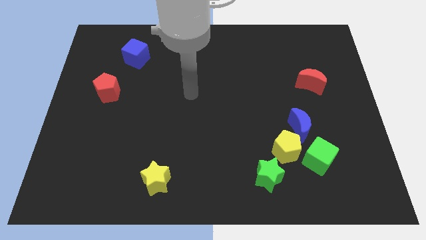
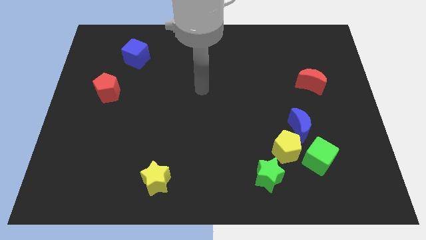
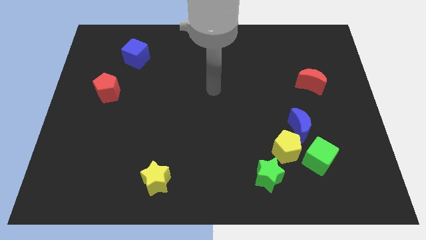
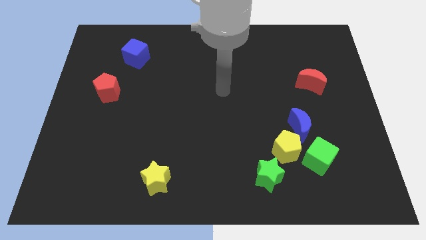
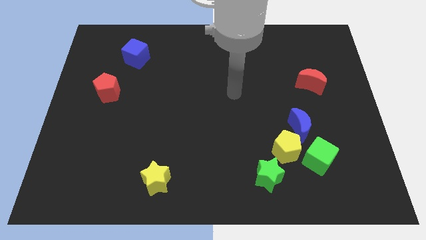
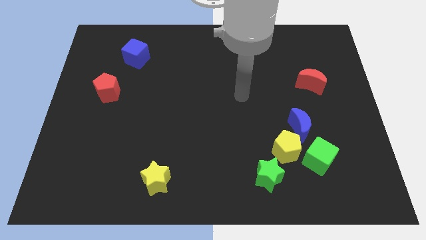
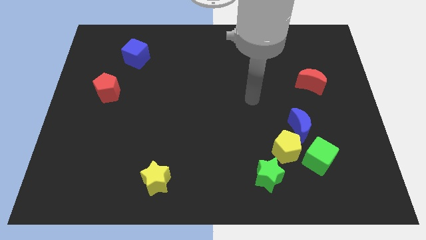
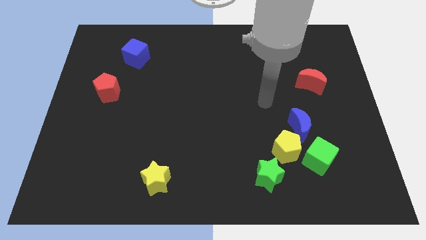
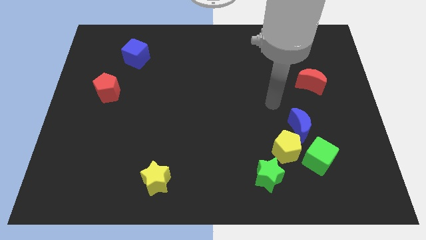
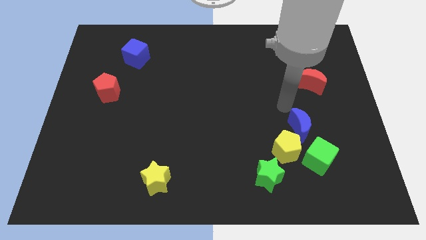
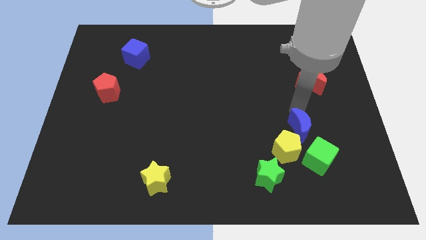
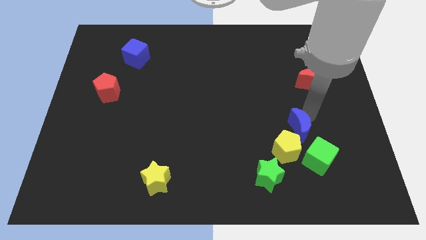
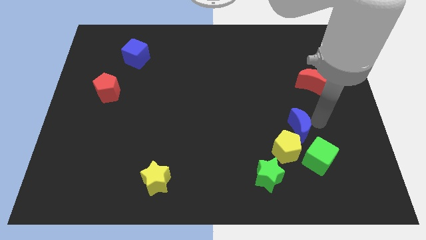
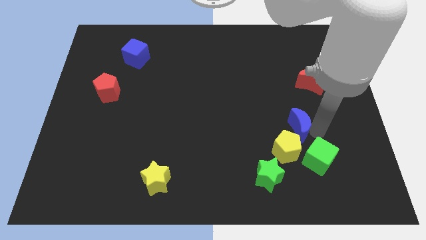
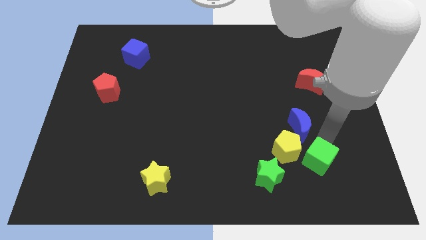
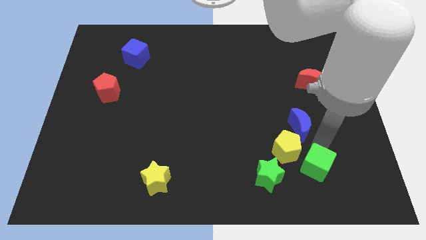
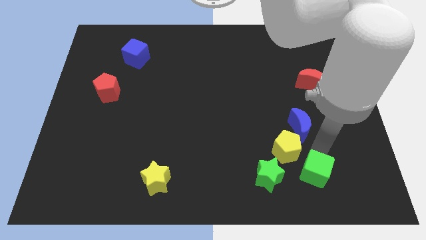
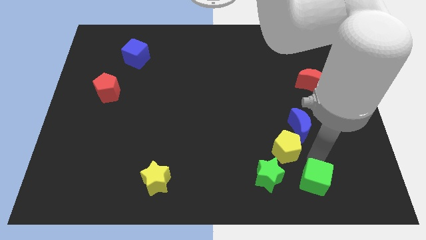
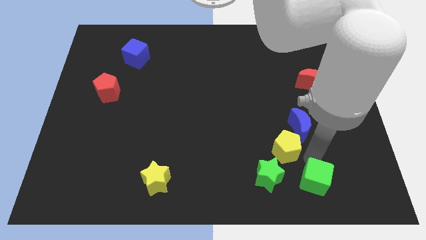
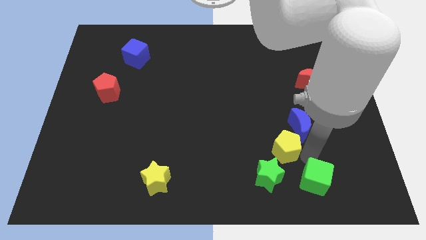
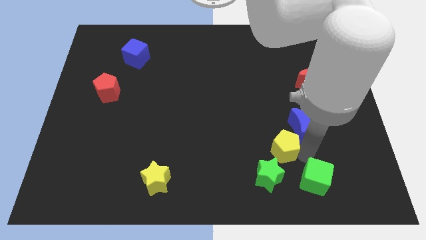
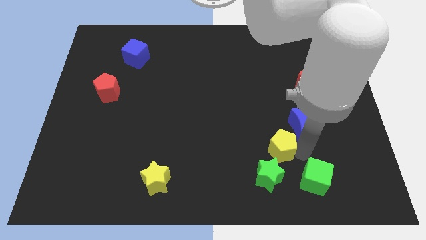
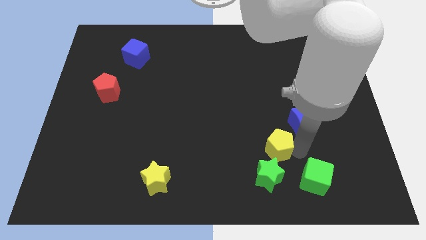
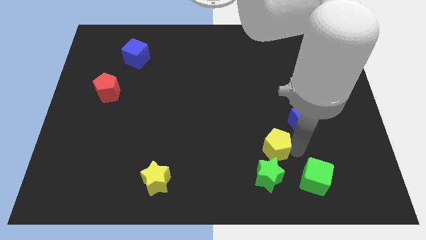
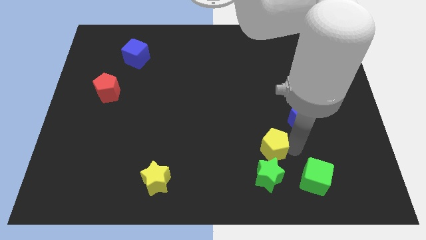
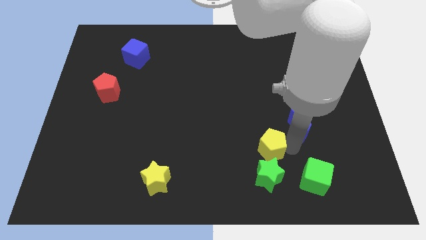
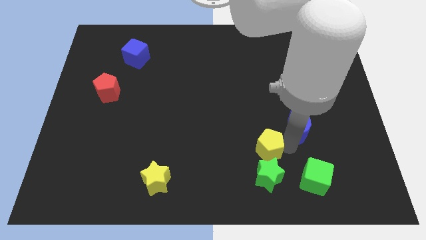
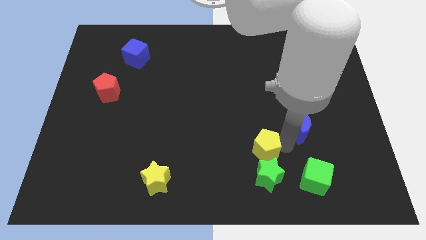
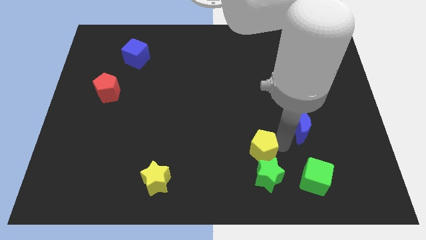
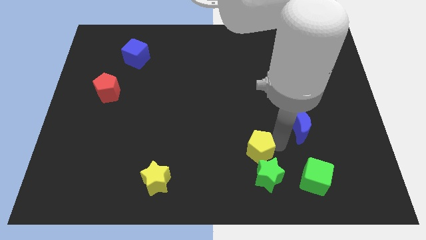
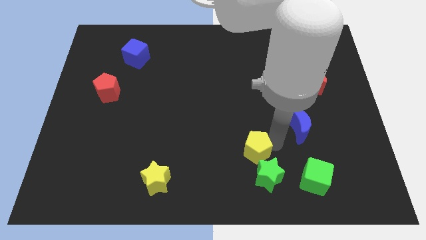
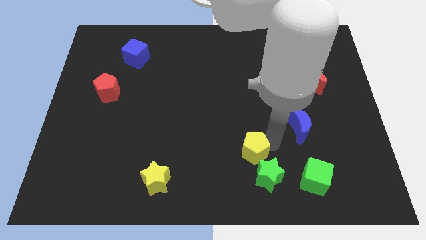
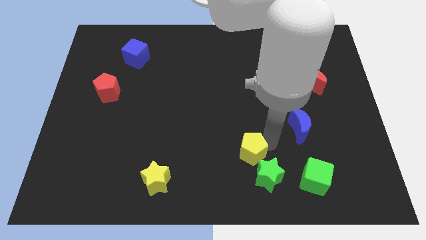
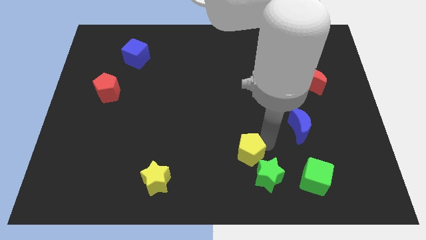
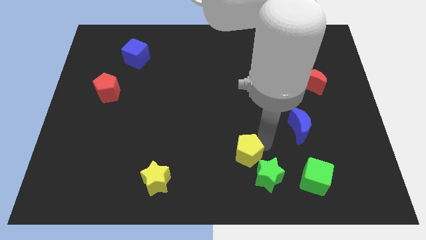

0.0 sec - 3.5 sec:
separate the yellow pentagon from the blue moon, green cube, and green star

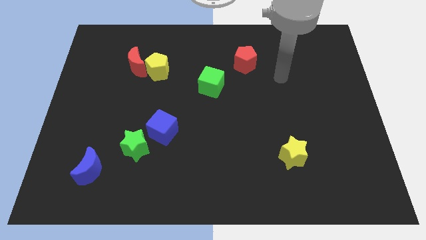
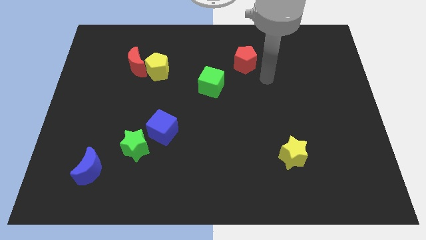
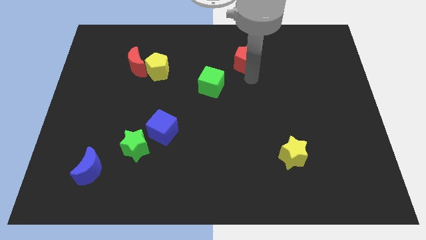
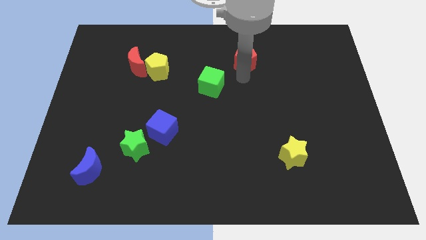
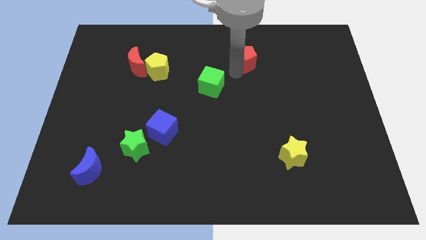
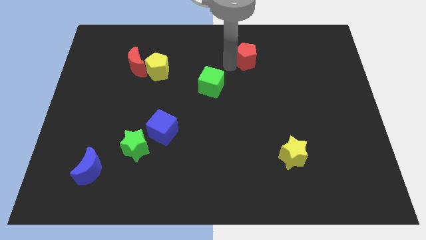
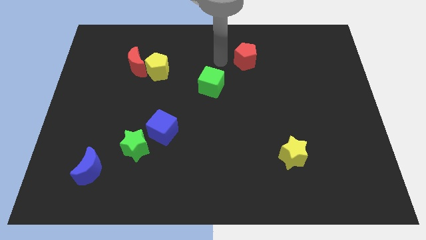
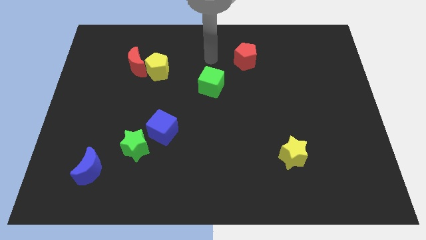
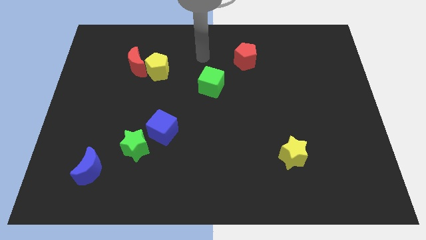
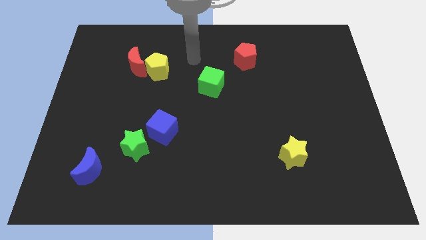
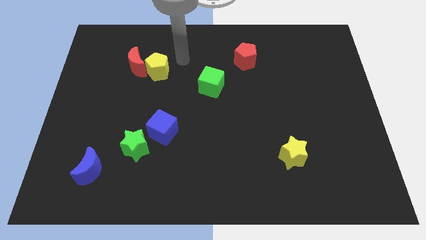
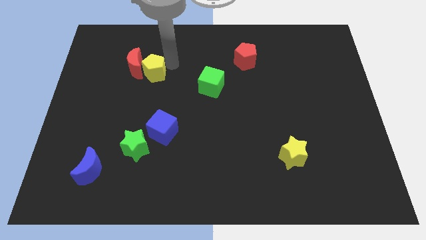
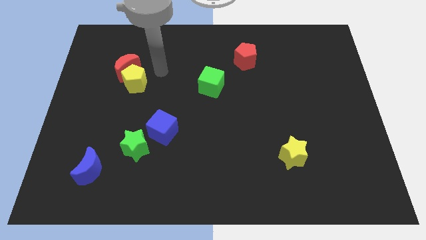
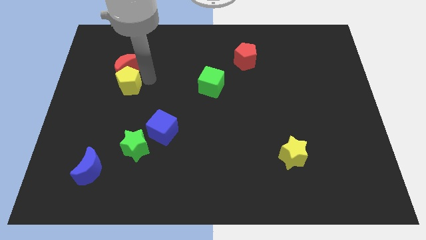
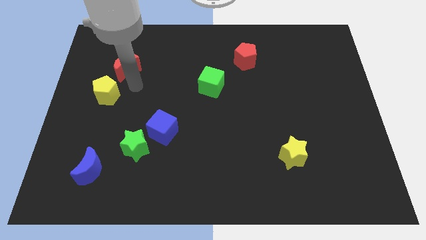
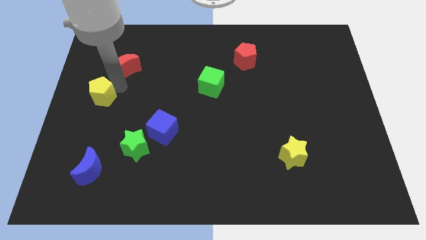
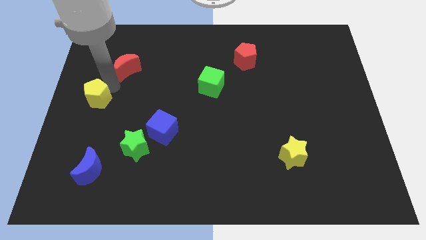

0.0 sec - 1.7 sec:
pull the red moon apart from the yellow pentagon

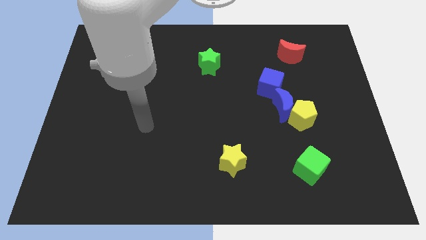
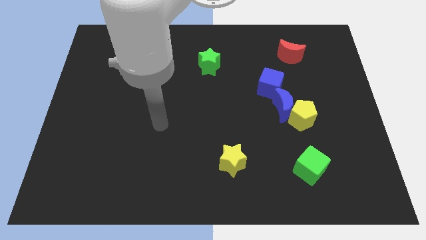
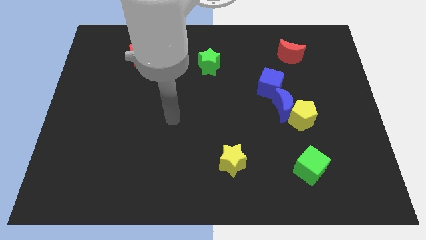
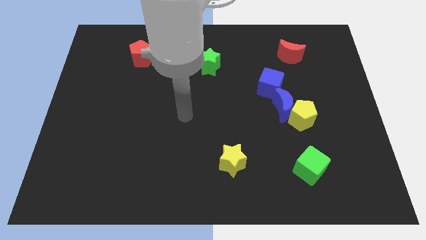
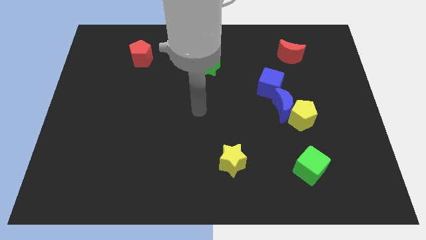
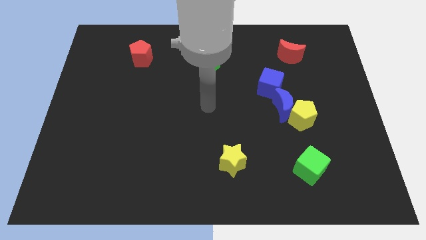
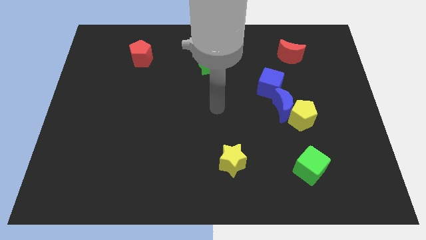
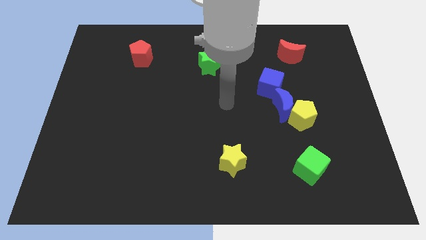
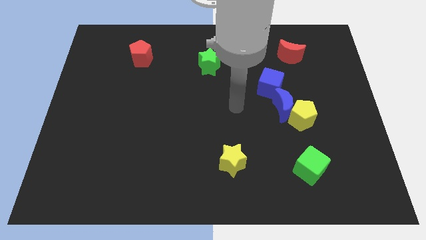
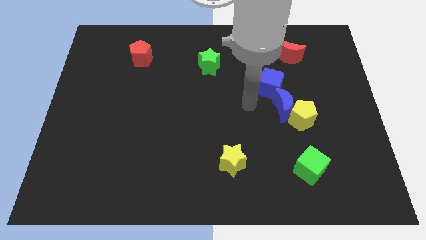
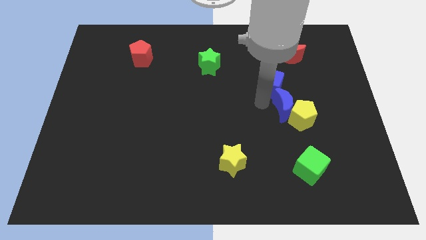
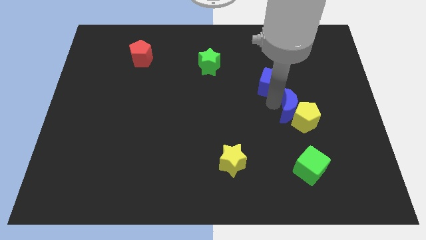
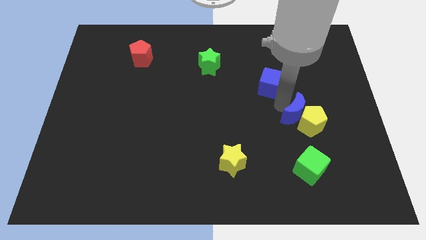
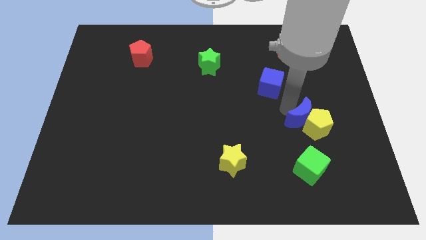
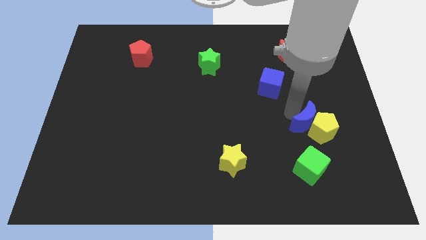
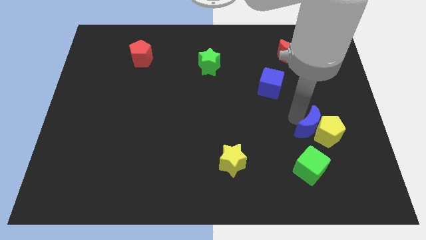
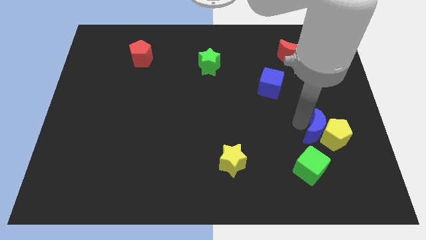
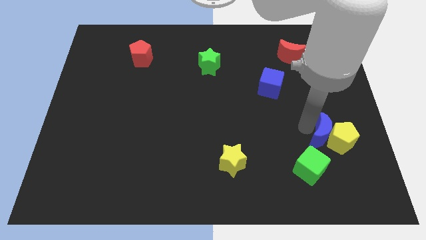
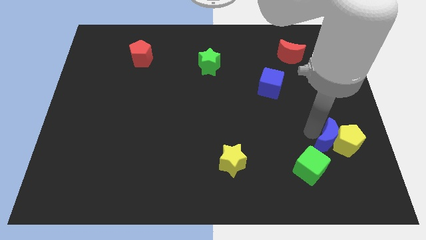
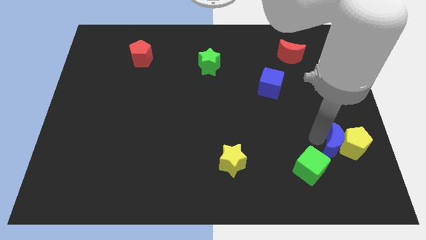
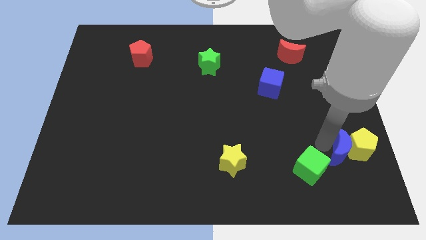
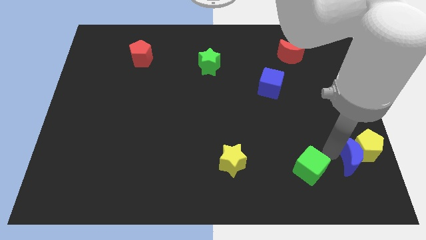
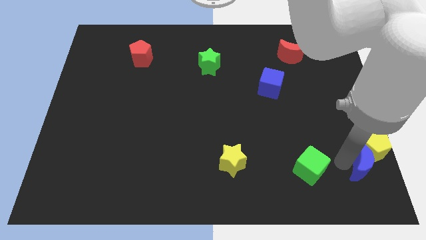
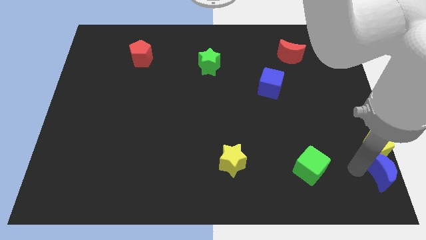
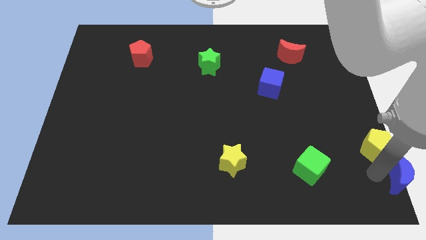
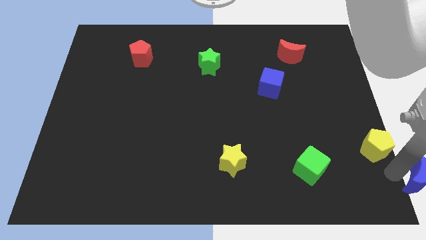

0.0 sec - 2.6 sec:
pull the yellow pentagon apart from the blue moon

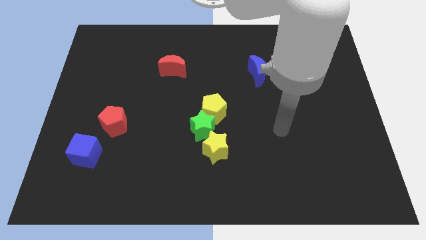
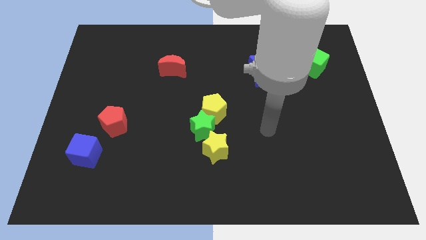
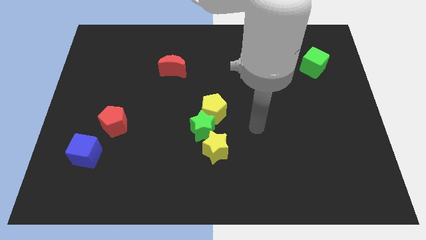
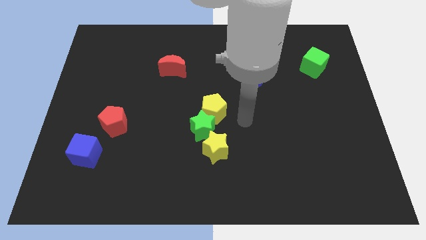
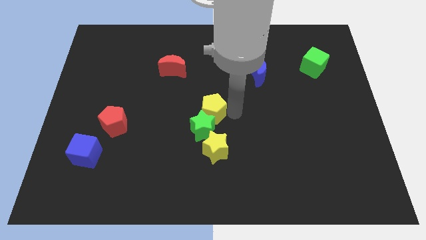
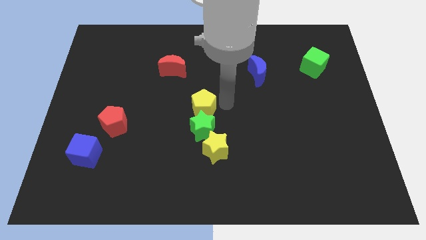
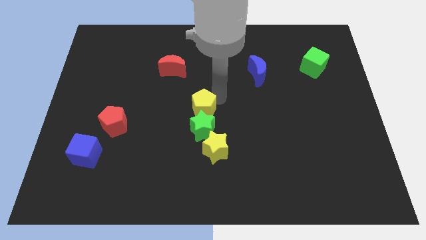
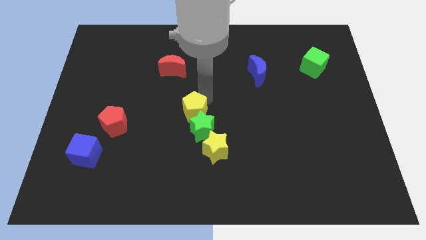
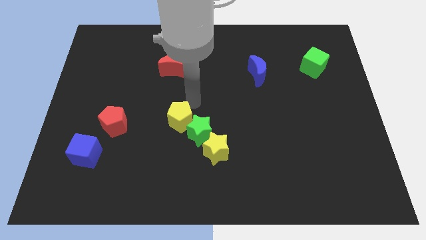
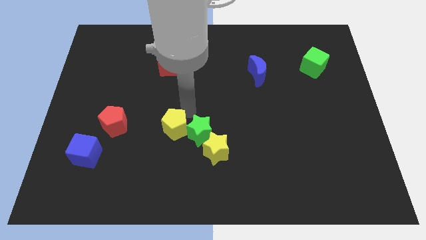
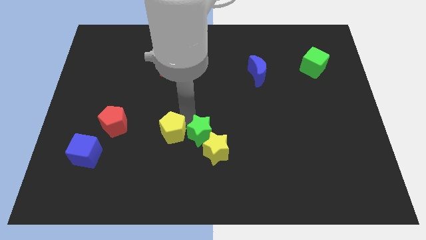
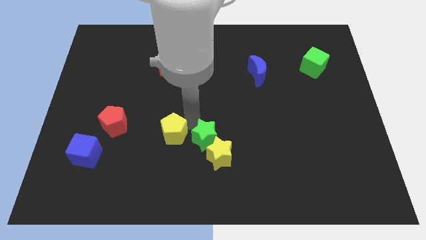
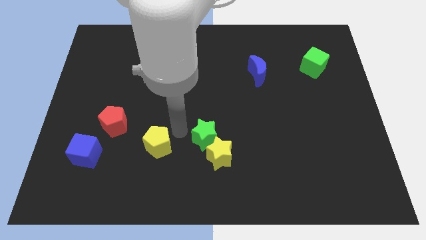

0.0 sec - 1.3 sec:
pull the yellow pentagon apart from the green star

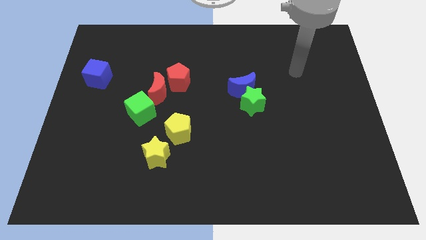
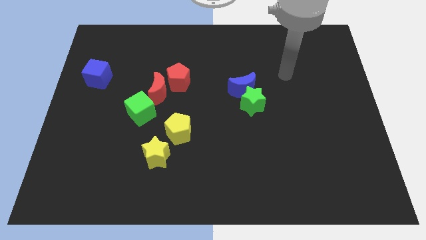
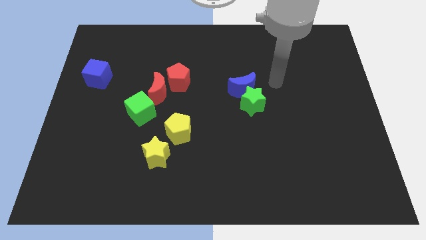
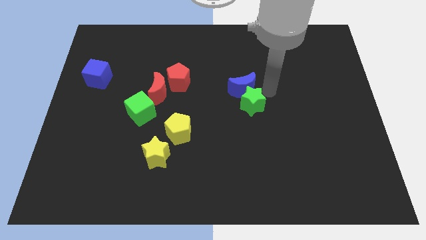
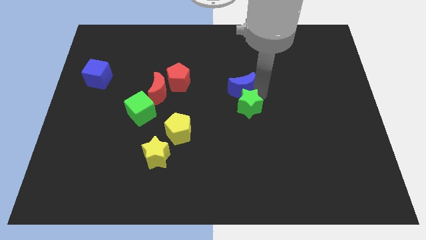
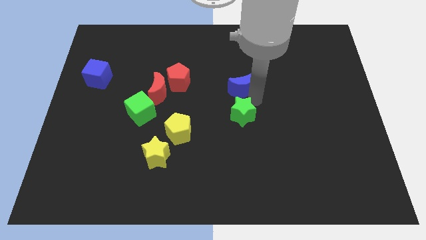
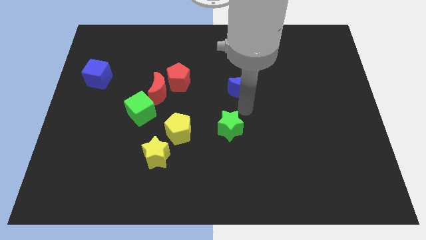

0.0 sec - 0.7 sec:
pull the blue moon apart from the green star
